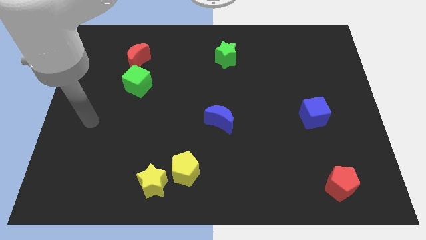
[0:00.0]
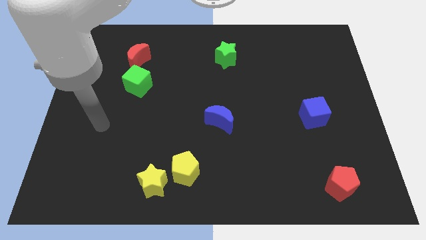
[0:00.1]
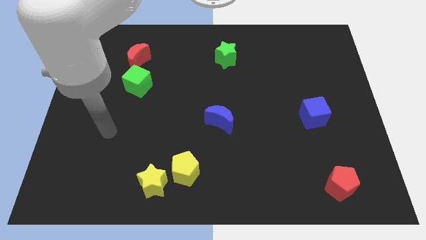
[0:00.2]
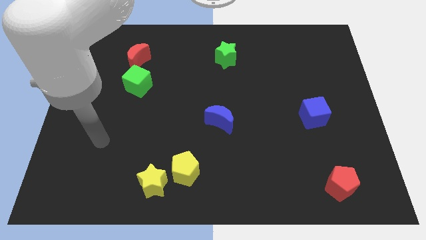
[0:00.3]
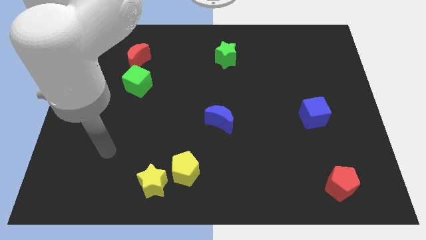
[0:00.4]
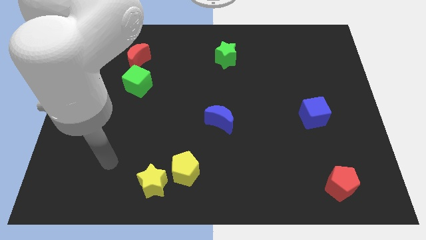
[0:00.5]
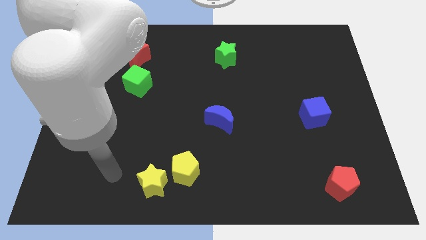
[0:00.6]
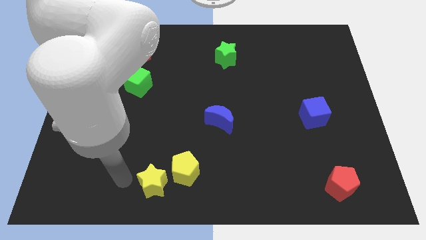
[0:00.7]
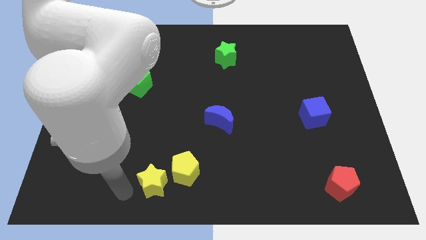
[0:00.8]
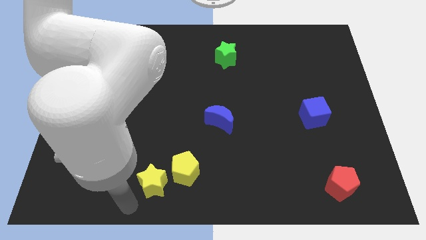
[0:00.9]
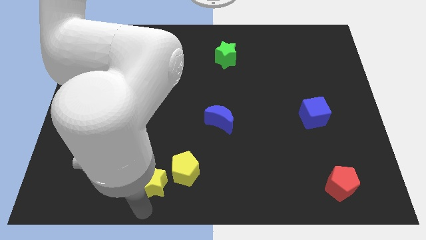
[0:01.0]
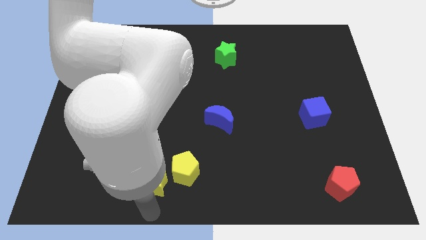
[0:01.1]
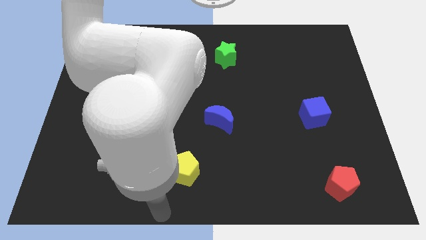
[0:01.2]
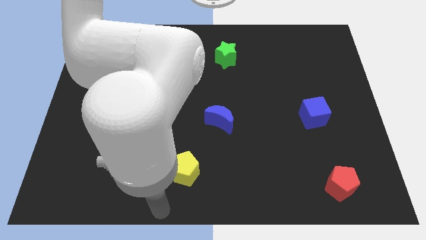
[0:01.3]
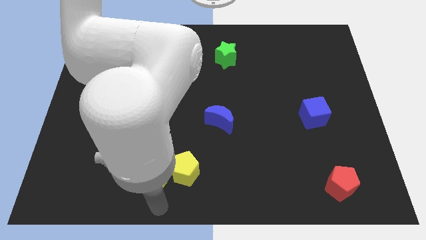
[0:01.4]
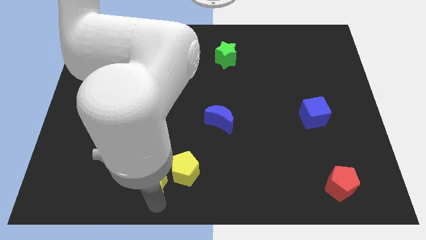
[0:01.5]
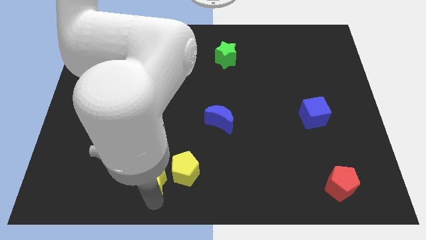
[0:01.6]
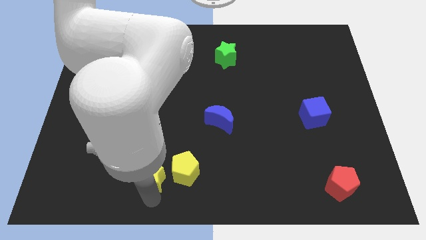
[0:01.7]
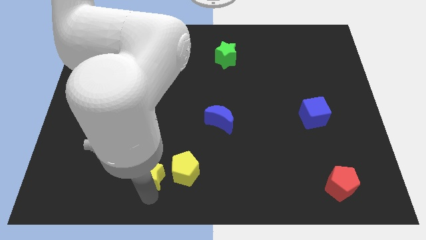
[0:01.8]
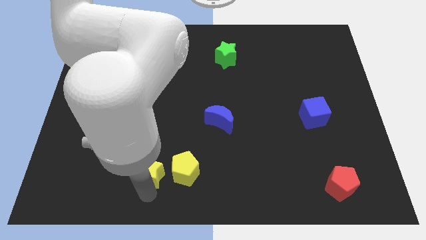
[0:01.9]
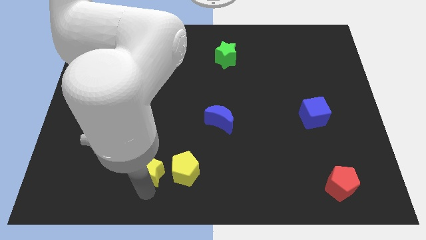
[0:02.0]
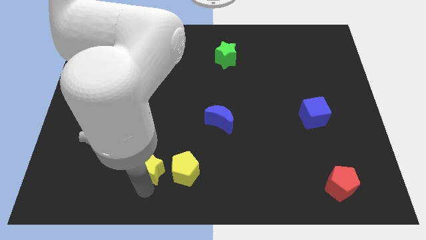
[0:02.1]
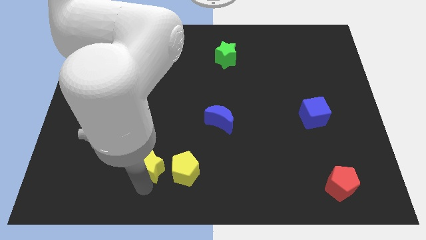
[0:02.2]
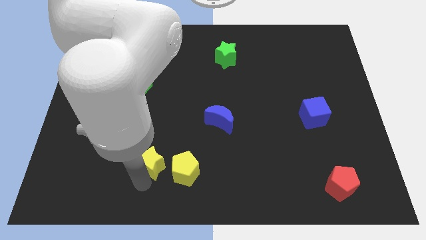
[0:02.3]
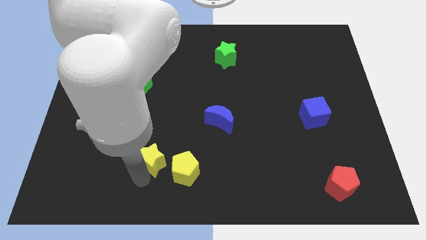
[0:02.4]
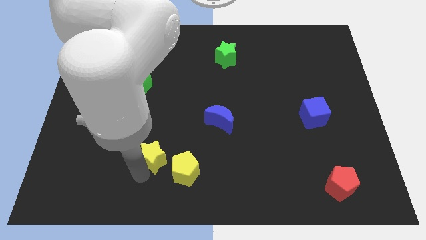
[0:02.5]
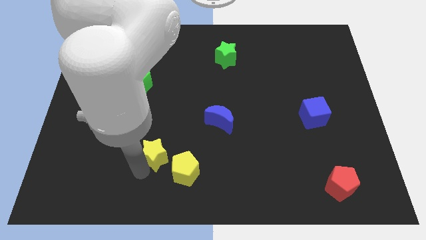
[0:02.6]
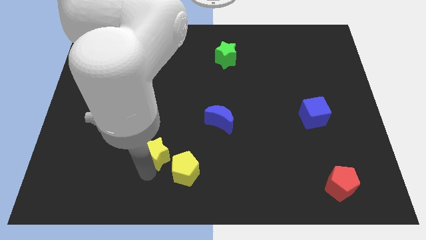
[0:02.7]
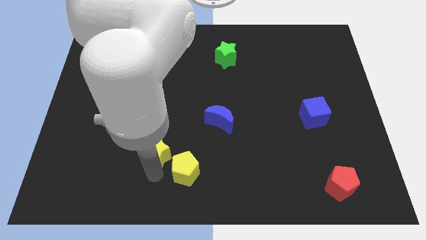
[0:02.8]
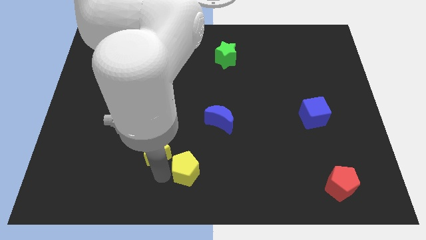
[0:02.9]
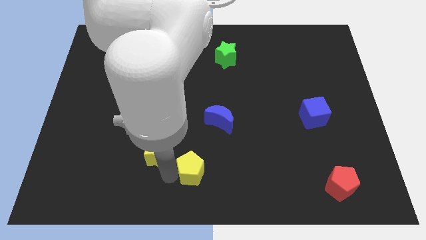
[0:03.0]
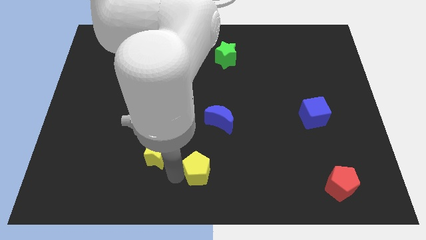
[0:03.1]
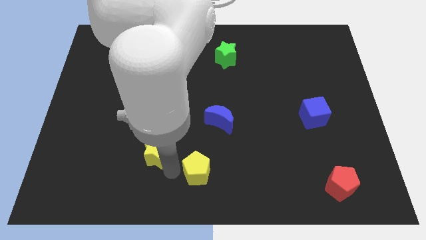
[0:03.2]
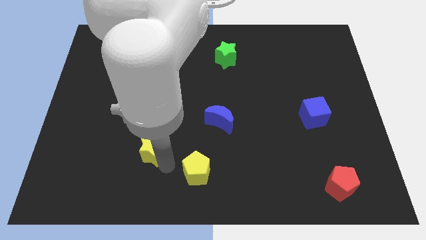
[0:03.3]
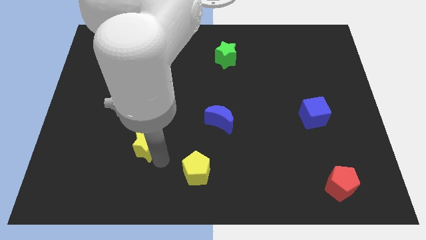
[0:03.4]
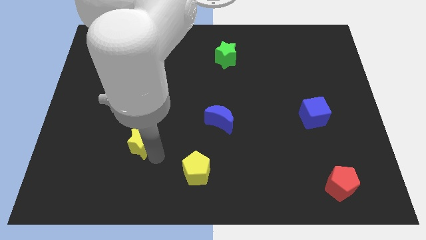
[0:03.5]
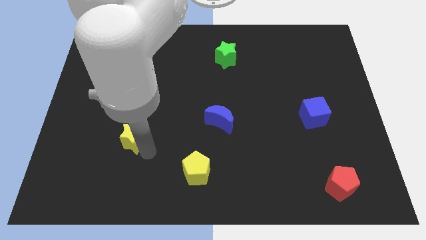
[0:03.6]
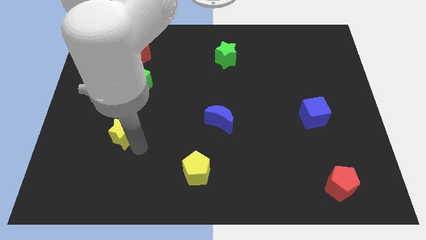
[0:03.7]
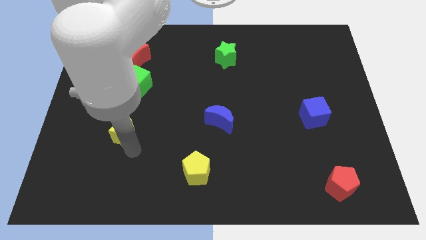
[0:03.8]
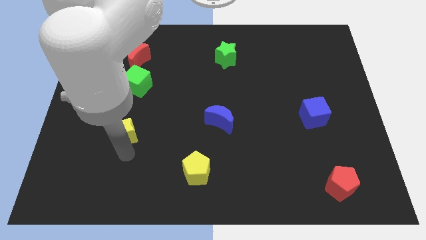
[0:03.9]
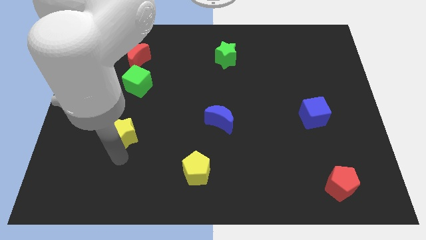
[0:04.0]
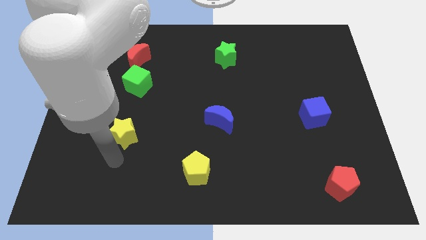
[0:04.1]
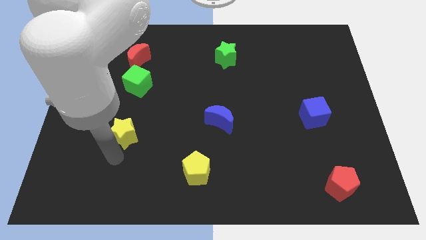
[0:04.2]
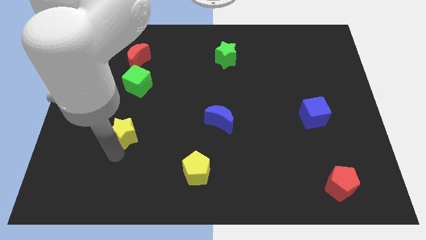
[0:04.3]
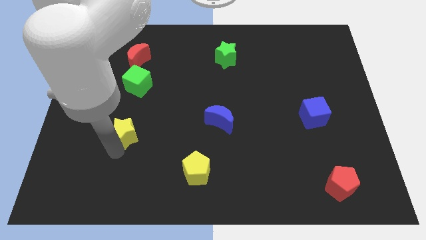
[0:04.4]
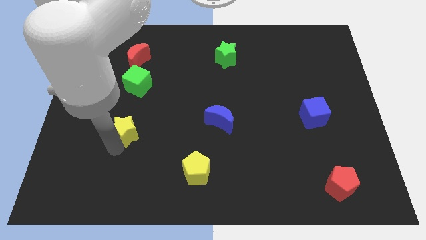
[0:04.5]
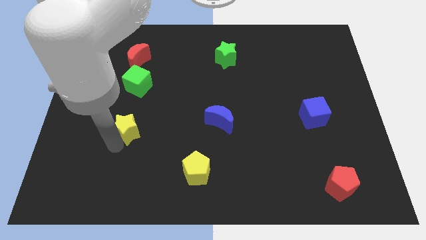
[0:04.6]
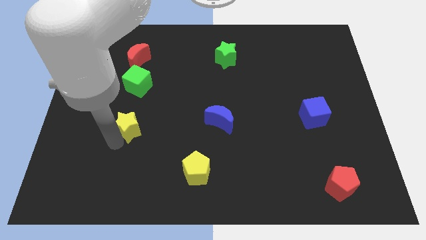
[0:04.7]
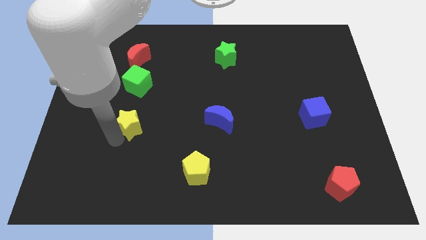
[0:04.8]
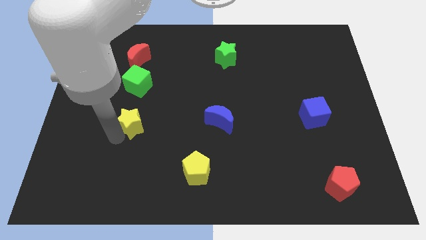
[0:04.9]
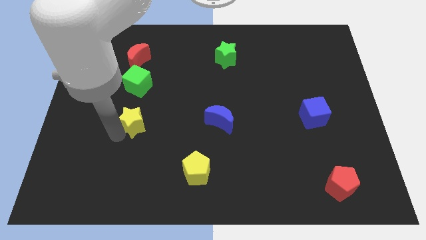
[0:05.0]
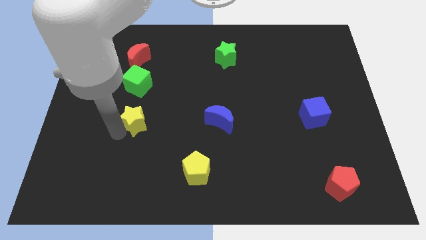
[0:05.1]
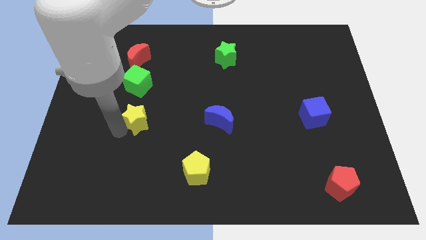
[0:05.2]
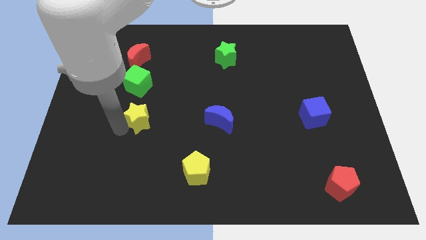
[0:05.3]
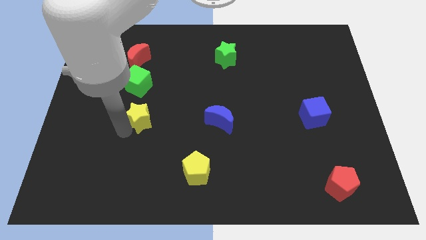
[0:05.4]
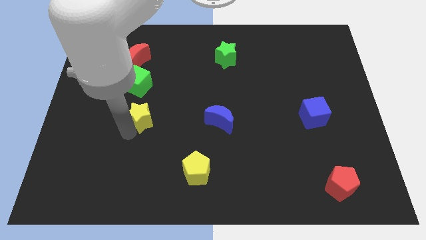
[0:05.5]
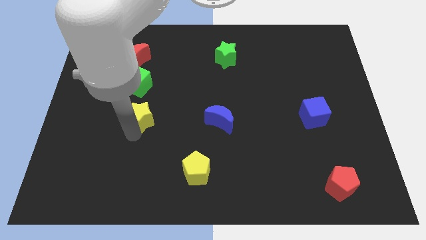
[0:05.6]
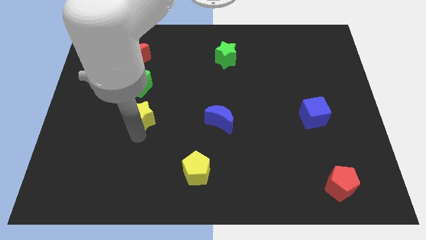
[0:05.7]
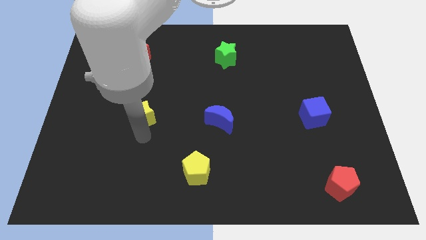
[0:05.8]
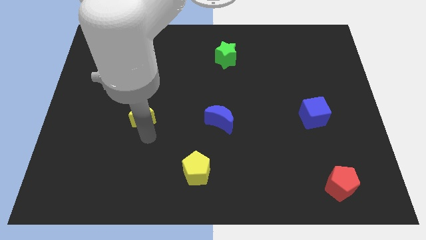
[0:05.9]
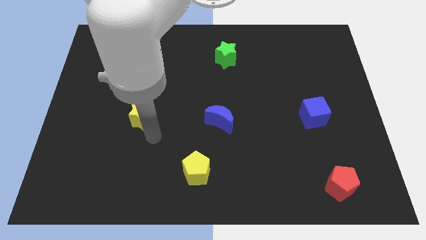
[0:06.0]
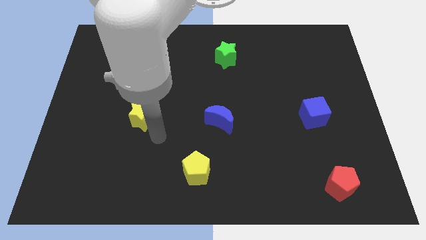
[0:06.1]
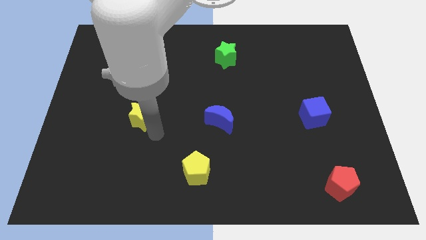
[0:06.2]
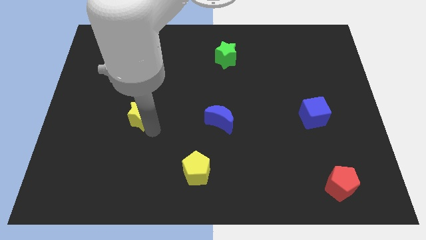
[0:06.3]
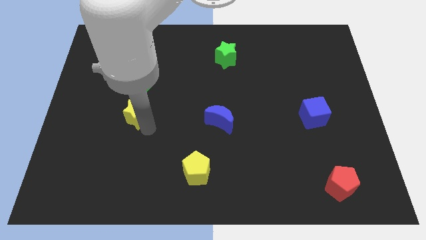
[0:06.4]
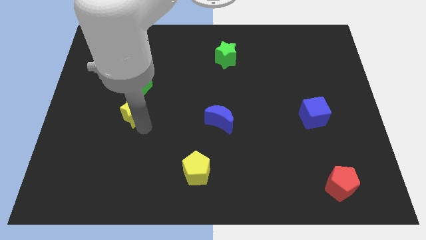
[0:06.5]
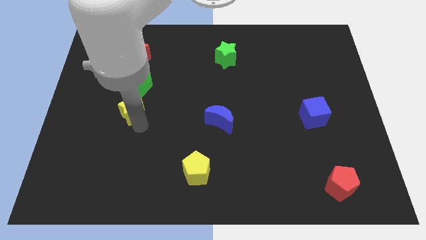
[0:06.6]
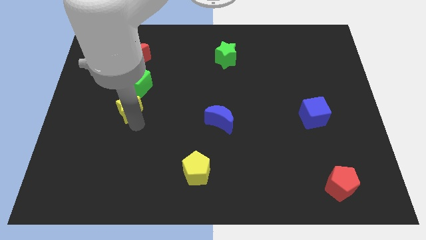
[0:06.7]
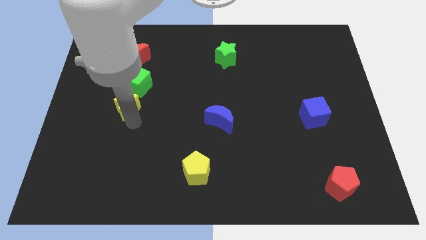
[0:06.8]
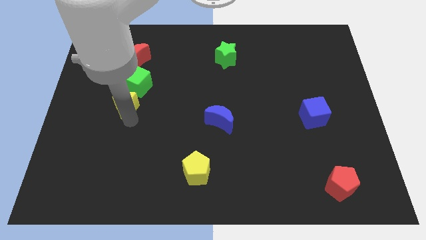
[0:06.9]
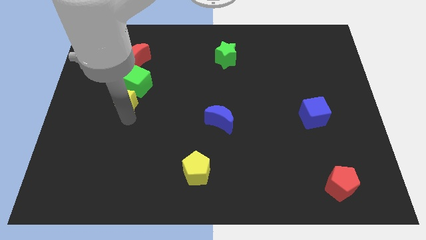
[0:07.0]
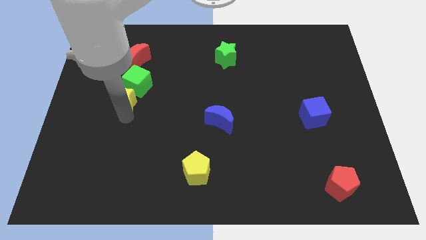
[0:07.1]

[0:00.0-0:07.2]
move the yellow star to the green cube
